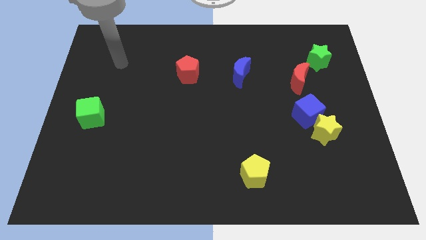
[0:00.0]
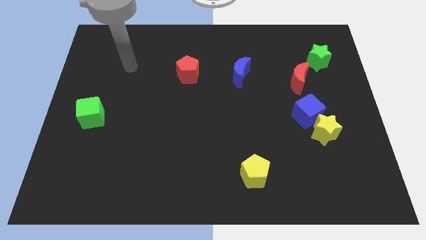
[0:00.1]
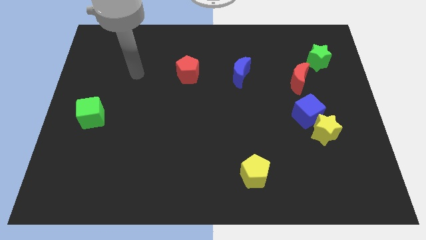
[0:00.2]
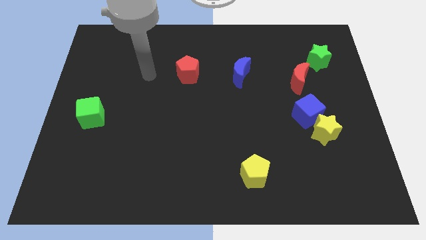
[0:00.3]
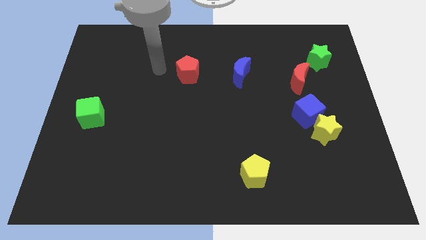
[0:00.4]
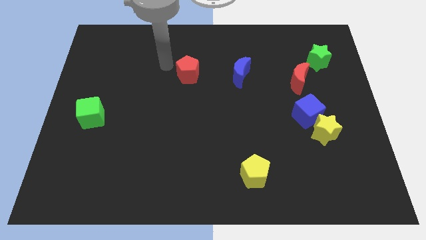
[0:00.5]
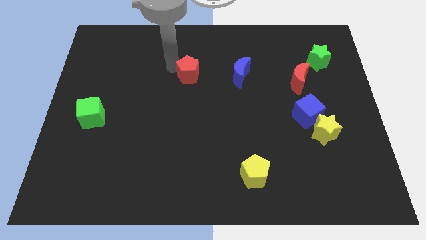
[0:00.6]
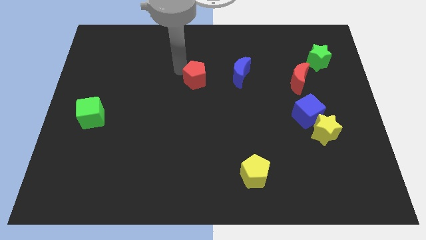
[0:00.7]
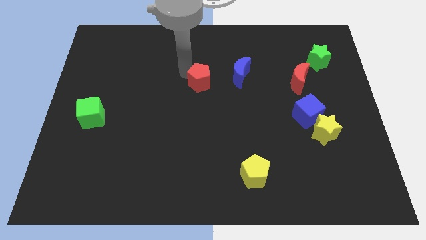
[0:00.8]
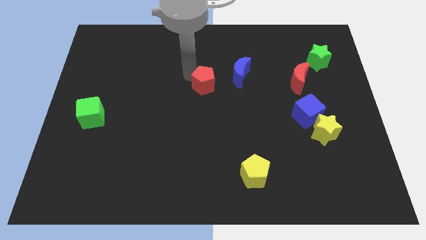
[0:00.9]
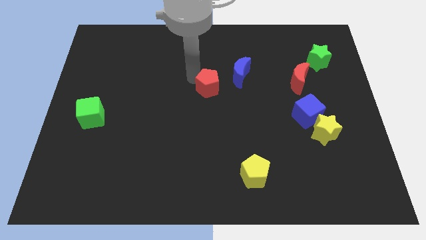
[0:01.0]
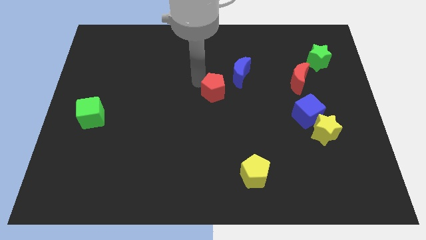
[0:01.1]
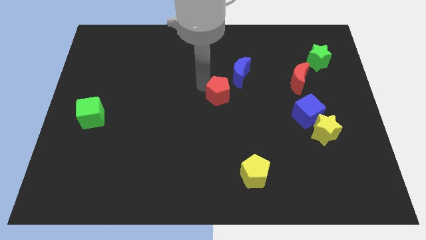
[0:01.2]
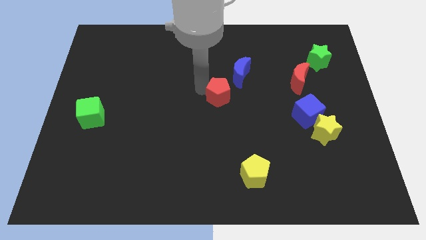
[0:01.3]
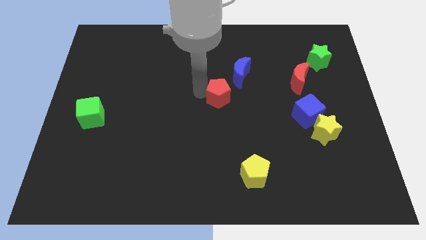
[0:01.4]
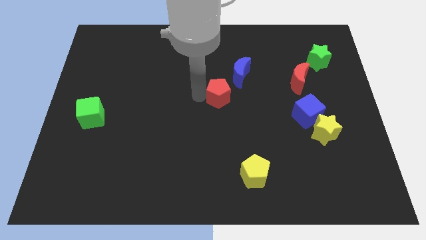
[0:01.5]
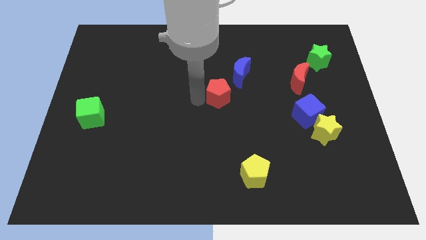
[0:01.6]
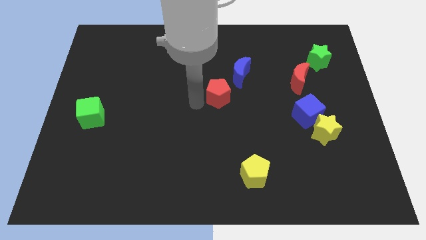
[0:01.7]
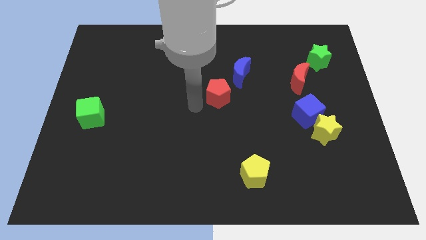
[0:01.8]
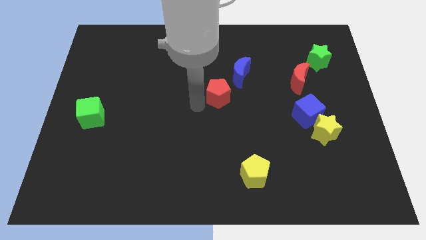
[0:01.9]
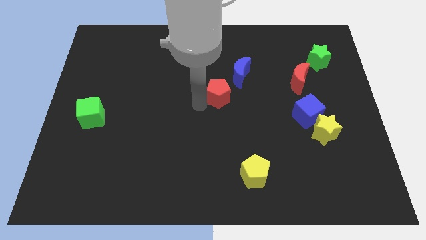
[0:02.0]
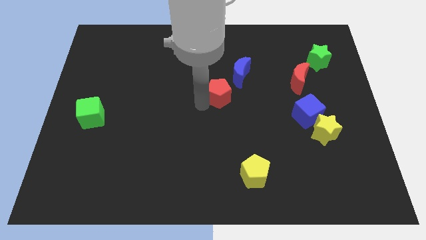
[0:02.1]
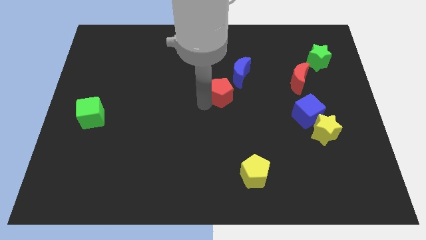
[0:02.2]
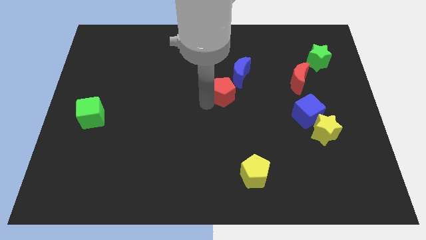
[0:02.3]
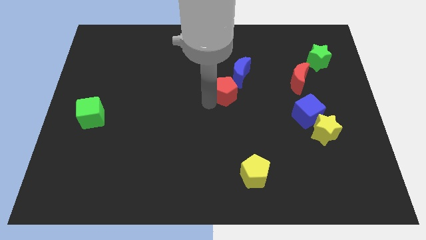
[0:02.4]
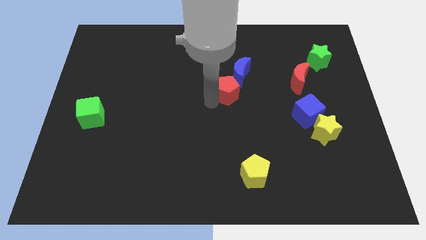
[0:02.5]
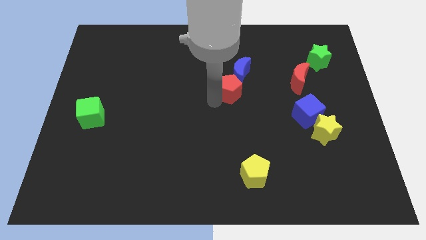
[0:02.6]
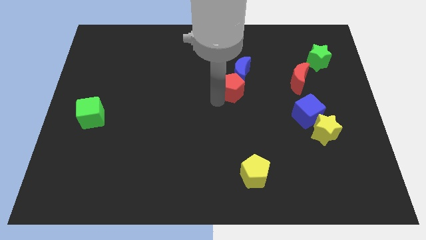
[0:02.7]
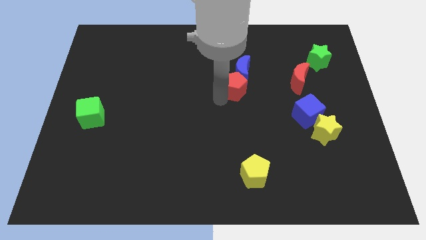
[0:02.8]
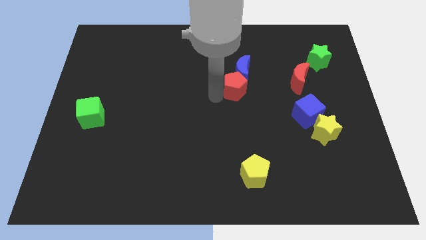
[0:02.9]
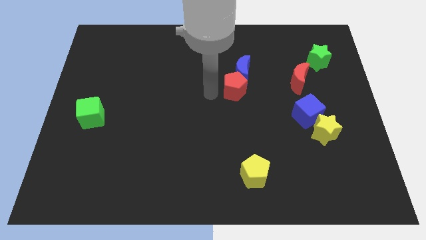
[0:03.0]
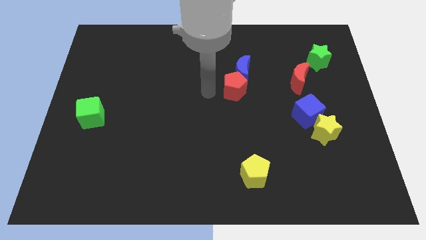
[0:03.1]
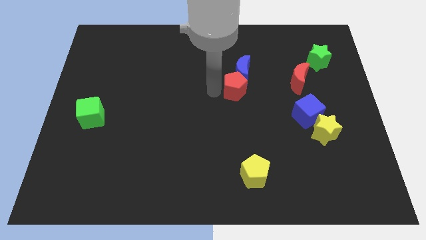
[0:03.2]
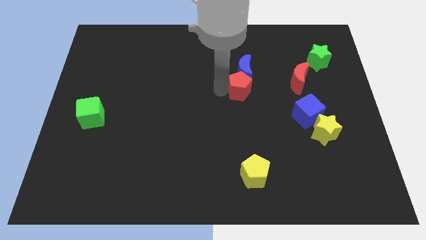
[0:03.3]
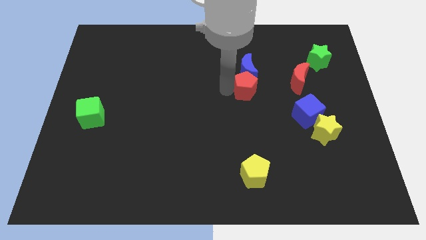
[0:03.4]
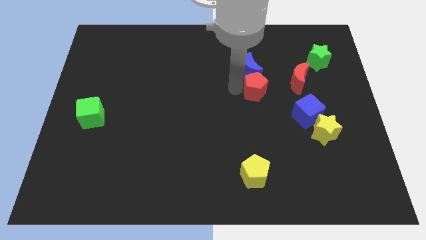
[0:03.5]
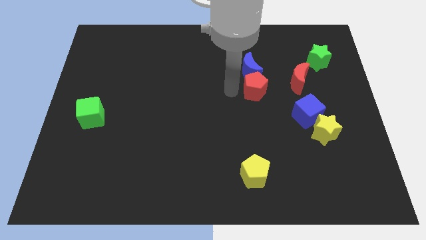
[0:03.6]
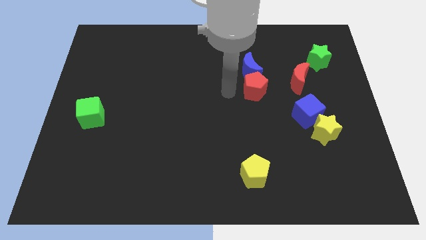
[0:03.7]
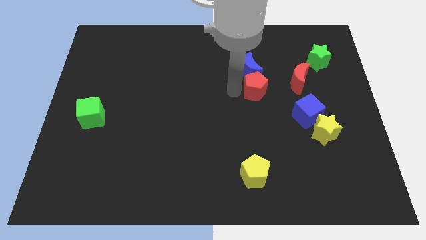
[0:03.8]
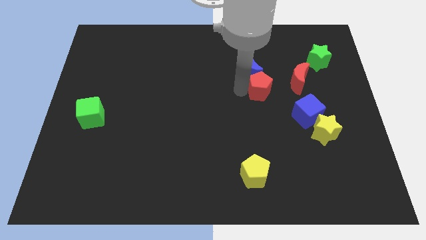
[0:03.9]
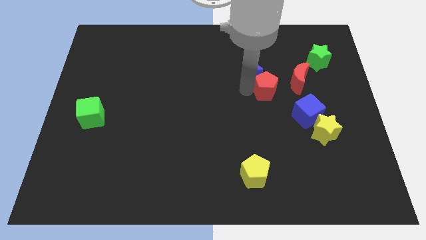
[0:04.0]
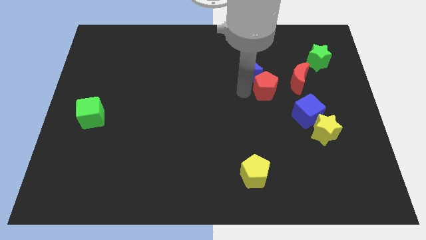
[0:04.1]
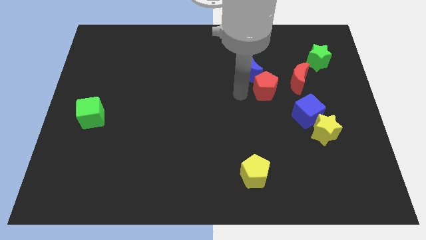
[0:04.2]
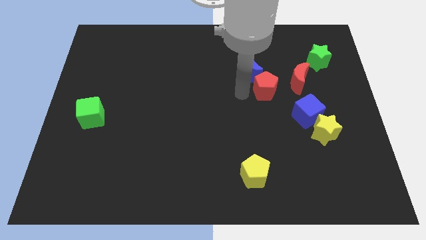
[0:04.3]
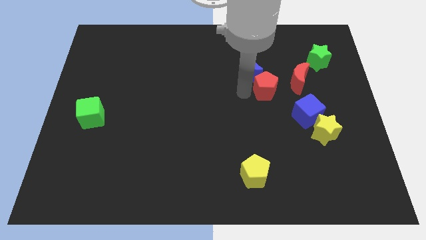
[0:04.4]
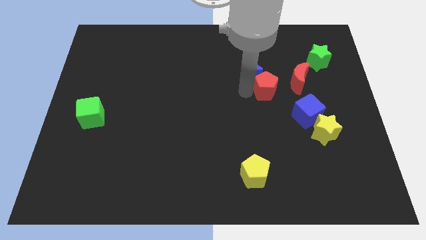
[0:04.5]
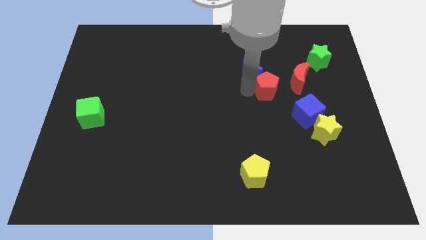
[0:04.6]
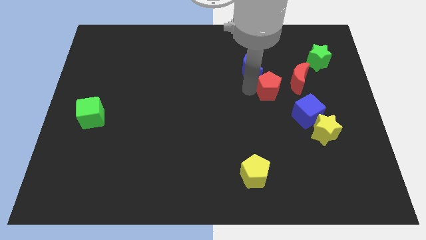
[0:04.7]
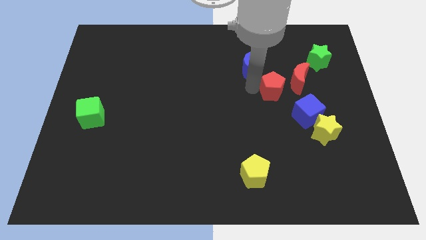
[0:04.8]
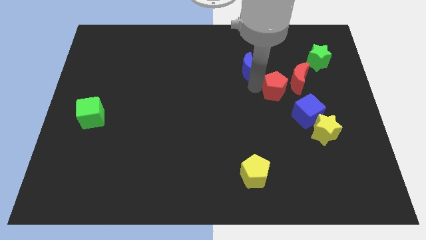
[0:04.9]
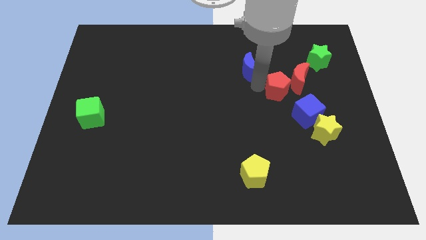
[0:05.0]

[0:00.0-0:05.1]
move the red pentagon next to the red moon

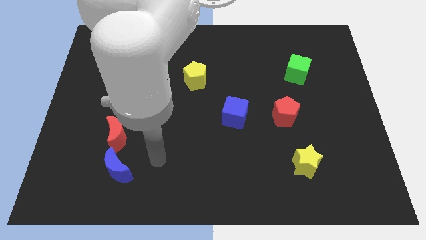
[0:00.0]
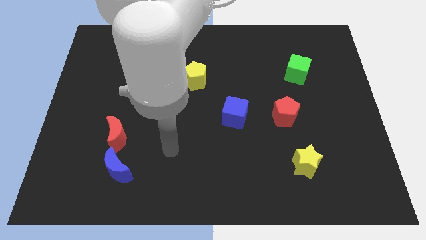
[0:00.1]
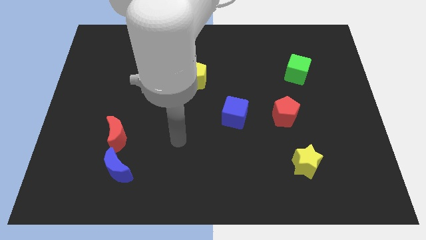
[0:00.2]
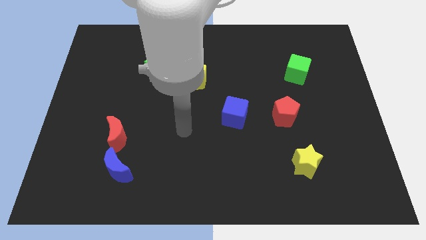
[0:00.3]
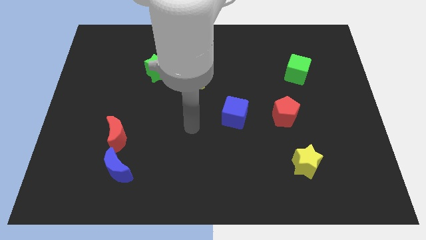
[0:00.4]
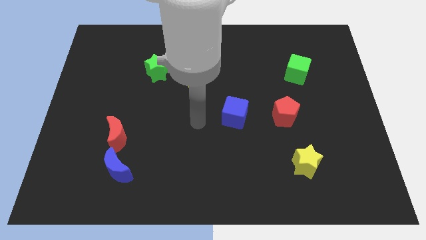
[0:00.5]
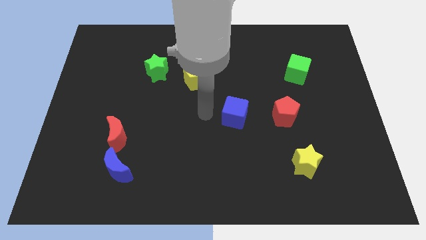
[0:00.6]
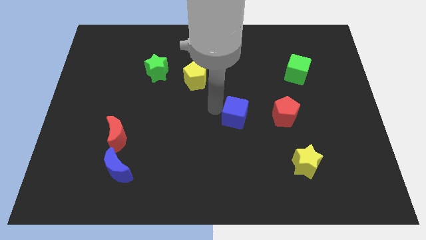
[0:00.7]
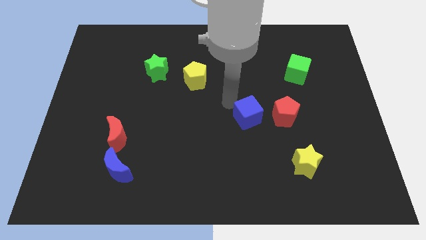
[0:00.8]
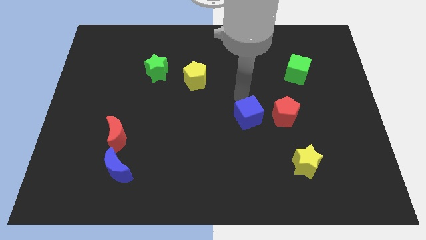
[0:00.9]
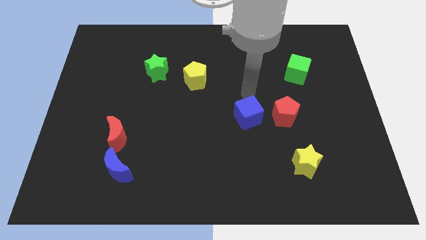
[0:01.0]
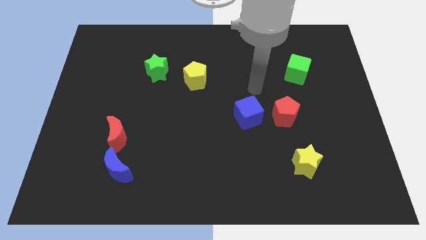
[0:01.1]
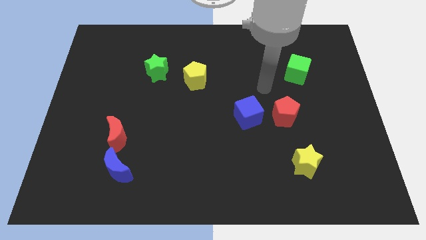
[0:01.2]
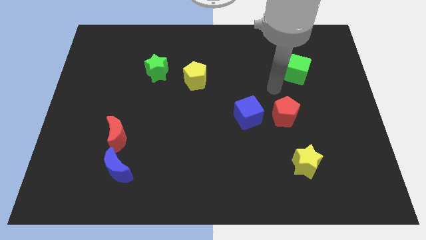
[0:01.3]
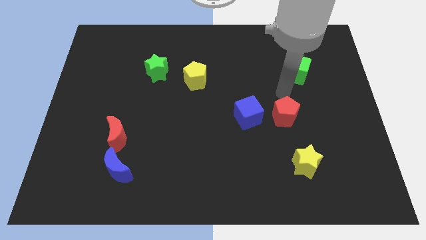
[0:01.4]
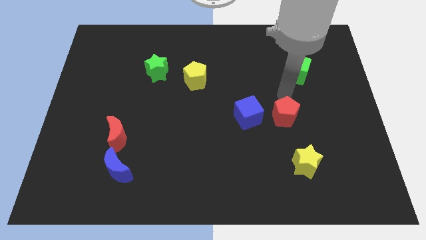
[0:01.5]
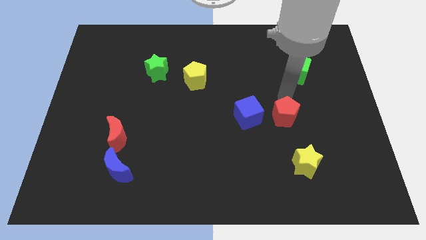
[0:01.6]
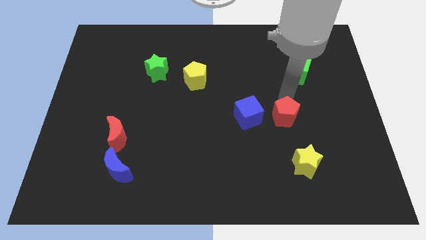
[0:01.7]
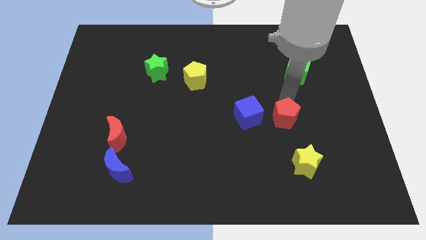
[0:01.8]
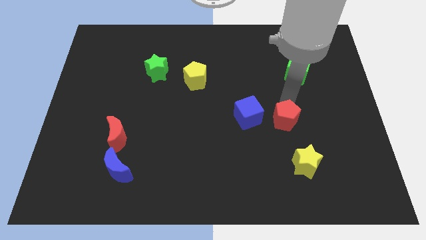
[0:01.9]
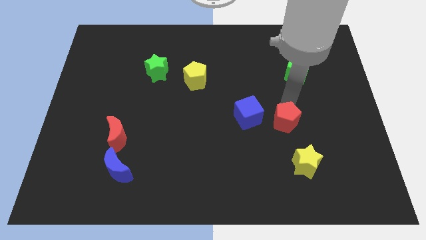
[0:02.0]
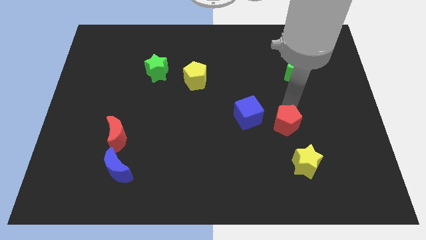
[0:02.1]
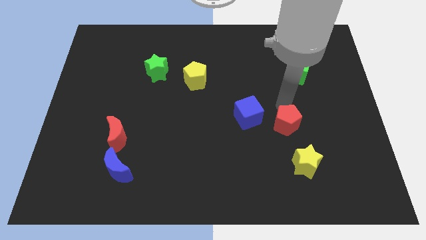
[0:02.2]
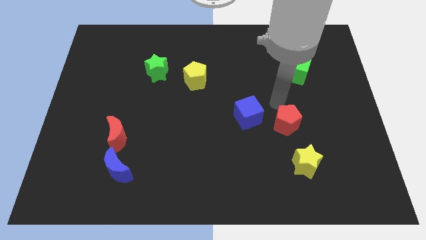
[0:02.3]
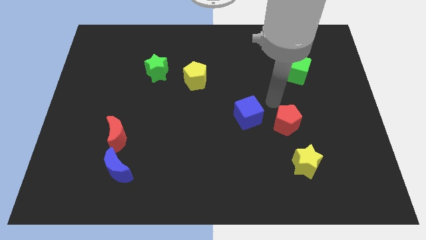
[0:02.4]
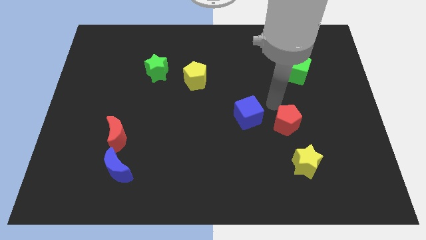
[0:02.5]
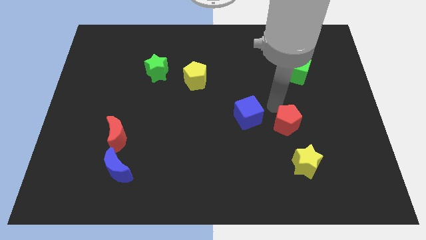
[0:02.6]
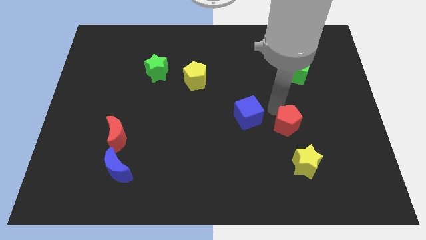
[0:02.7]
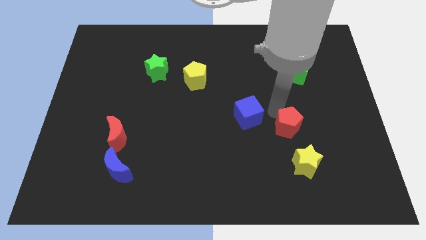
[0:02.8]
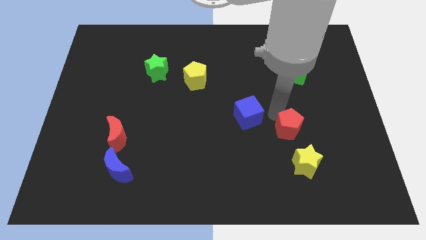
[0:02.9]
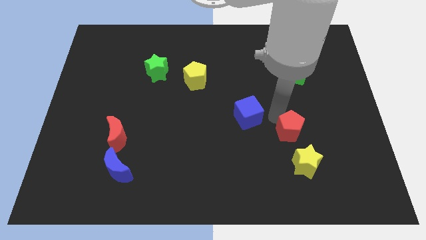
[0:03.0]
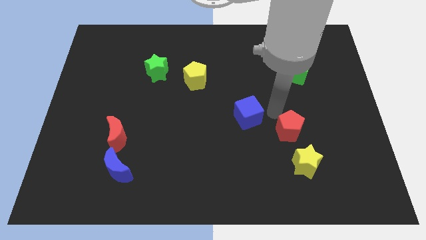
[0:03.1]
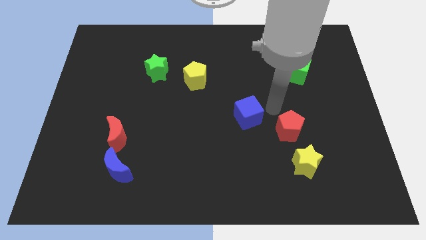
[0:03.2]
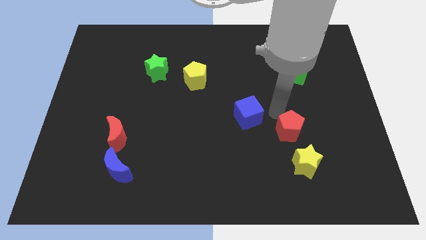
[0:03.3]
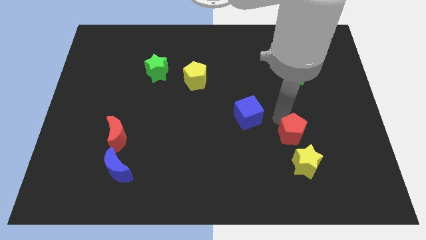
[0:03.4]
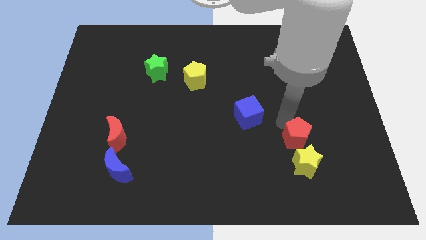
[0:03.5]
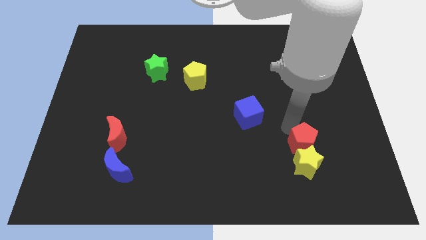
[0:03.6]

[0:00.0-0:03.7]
move the red pentagon close to the yellow star
